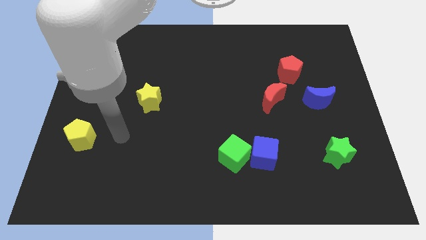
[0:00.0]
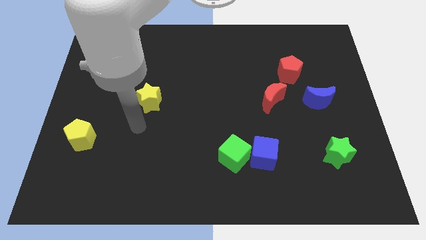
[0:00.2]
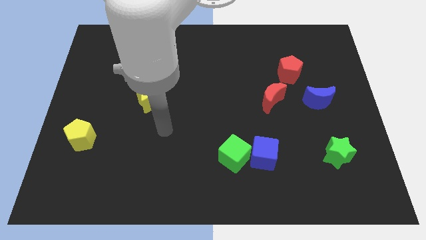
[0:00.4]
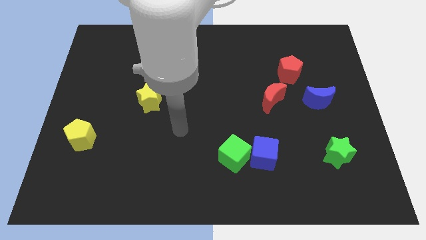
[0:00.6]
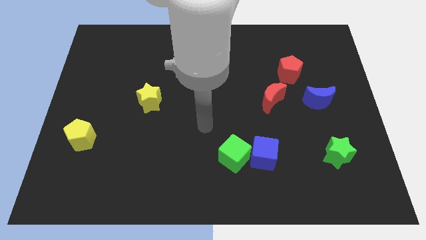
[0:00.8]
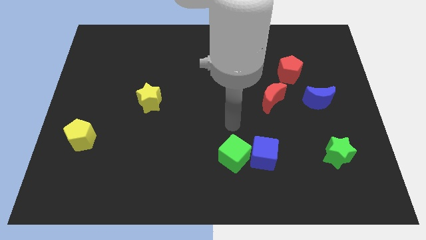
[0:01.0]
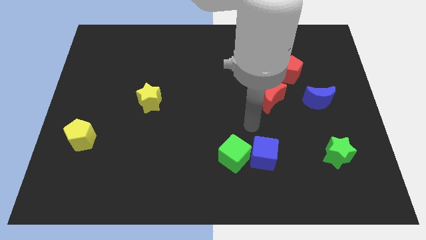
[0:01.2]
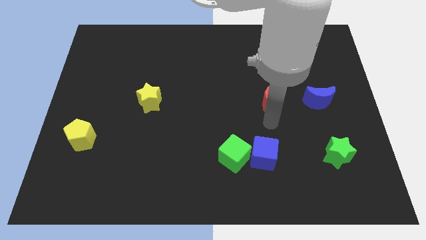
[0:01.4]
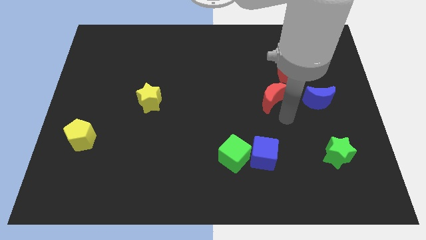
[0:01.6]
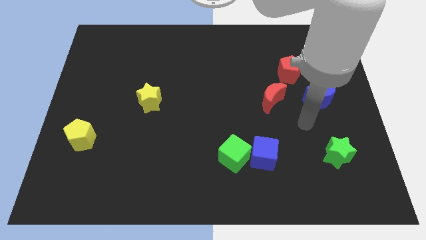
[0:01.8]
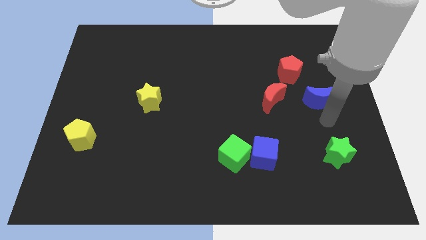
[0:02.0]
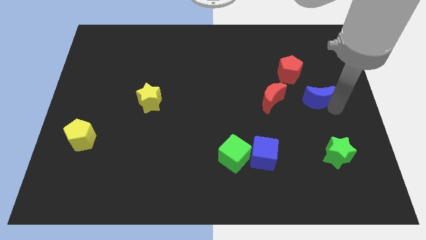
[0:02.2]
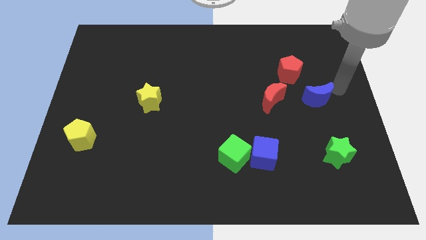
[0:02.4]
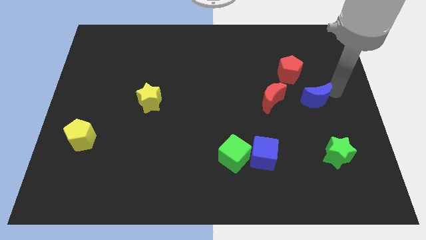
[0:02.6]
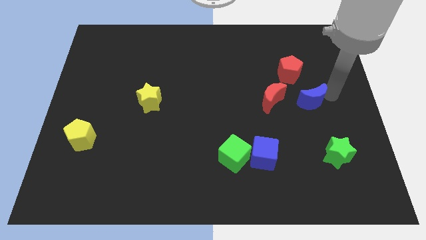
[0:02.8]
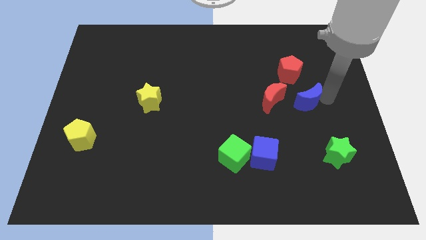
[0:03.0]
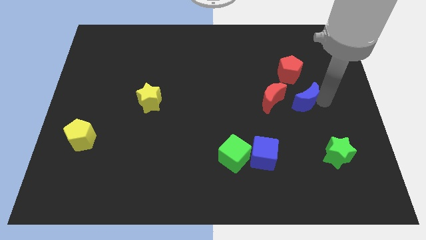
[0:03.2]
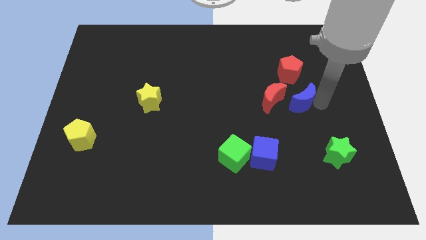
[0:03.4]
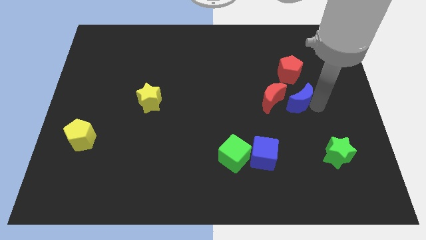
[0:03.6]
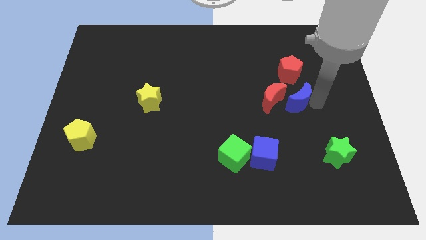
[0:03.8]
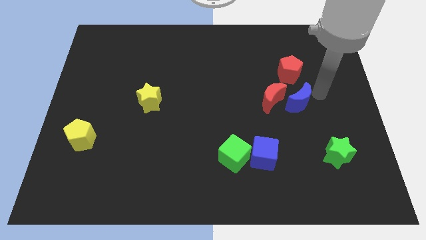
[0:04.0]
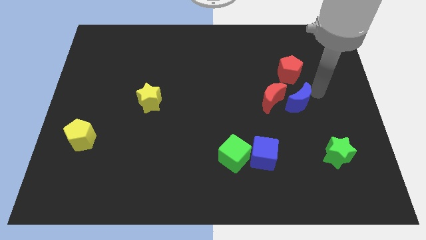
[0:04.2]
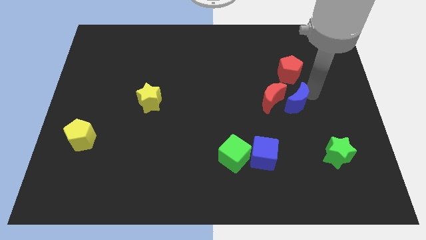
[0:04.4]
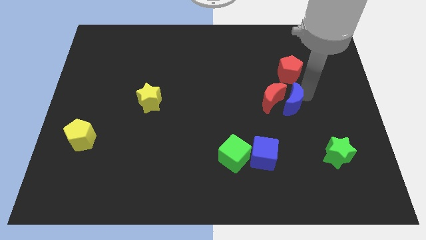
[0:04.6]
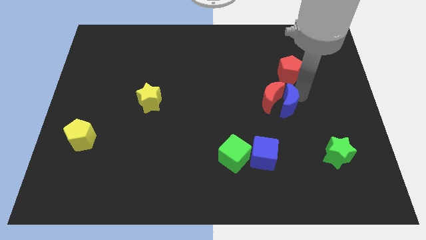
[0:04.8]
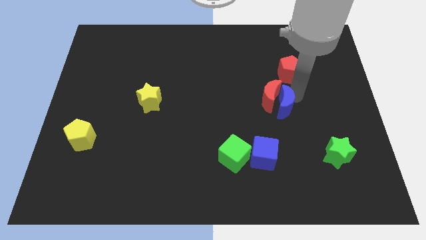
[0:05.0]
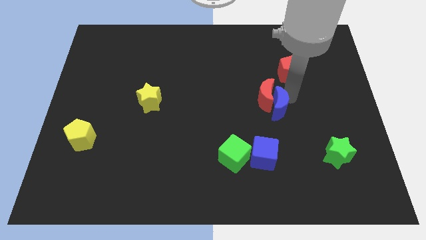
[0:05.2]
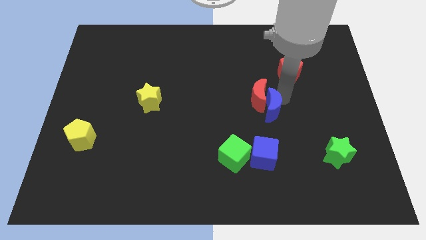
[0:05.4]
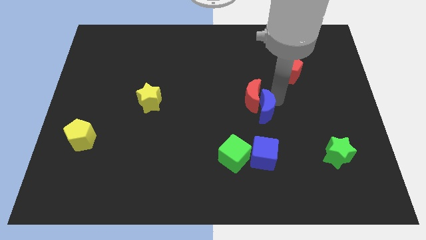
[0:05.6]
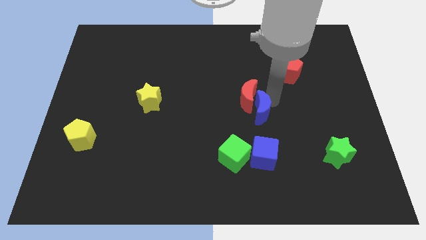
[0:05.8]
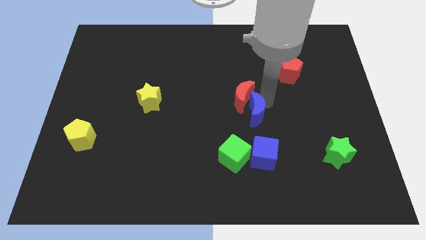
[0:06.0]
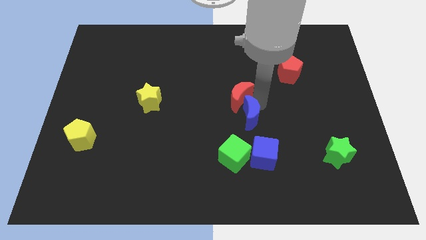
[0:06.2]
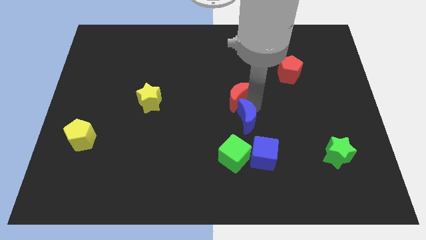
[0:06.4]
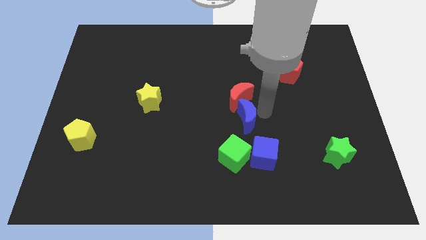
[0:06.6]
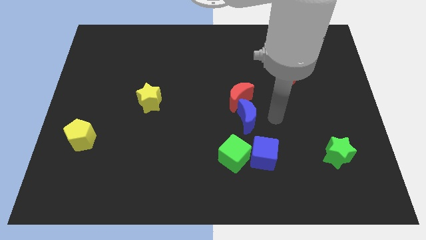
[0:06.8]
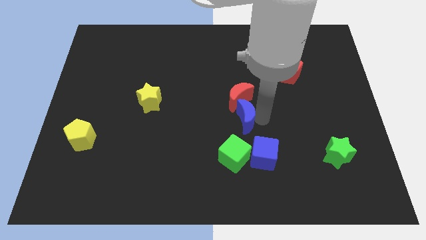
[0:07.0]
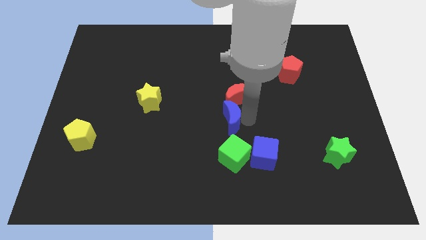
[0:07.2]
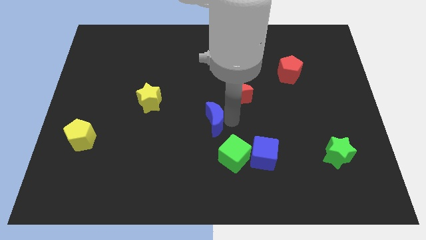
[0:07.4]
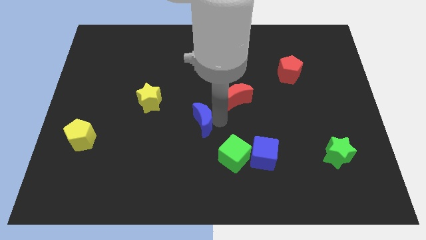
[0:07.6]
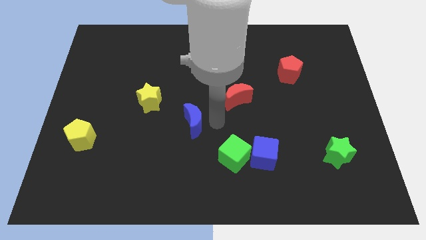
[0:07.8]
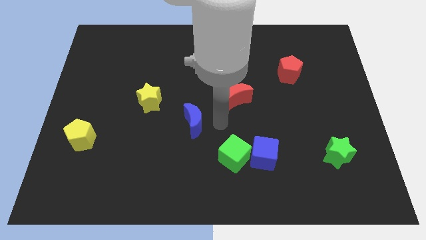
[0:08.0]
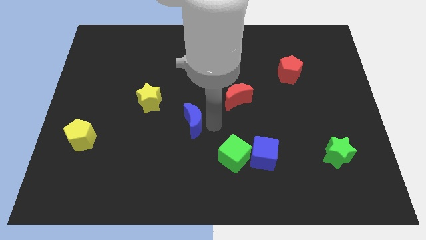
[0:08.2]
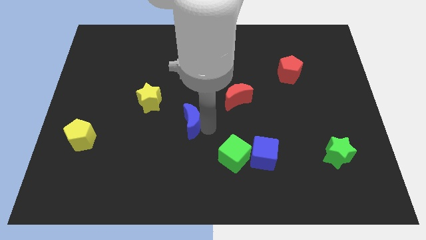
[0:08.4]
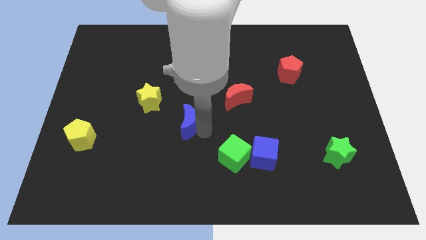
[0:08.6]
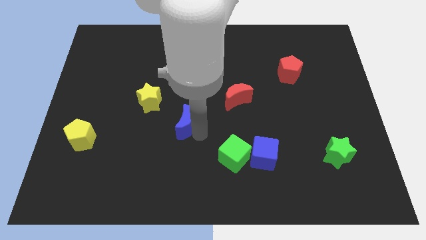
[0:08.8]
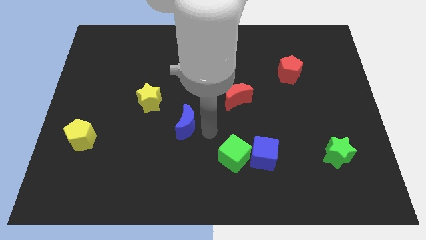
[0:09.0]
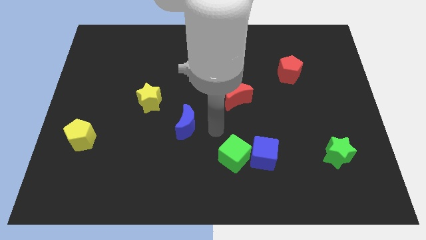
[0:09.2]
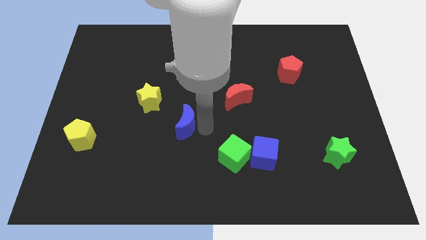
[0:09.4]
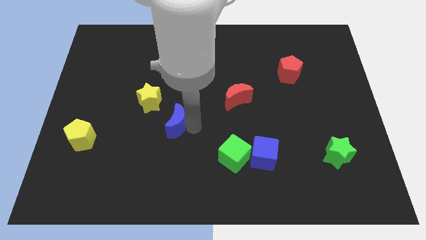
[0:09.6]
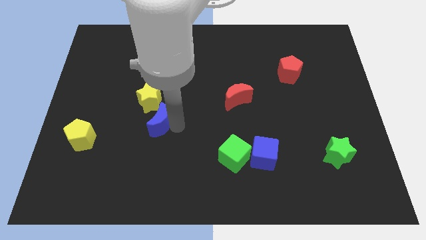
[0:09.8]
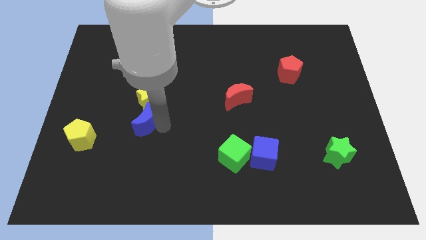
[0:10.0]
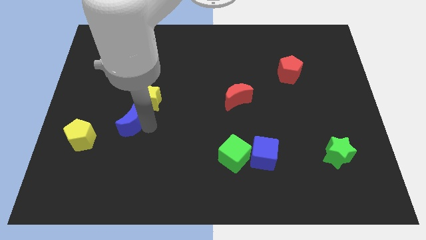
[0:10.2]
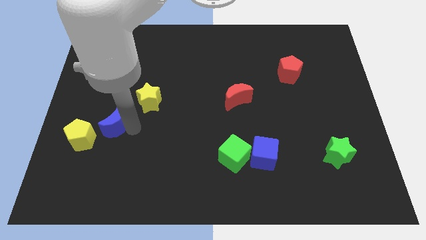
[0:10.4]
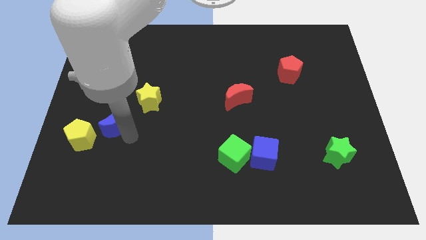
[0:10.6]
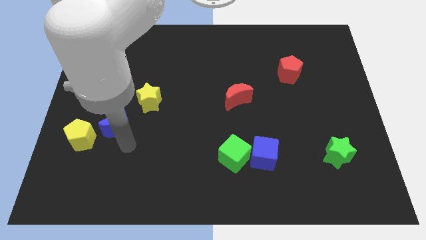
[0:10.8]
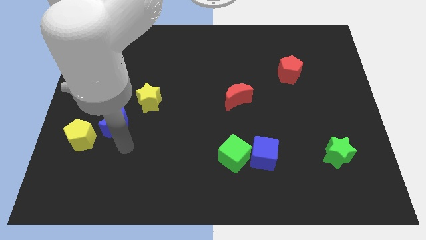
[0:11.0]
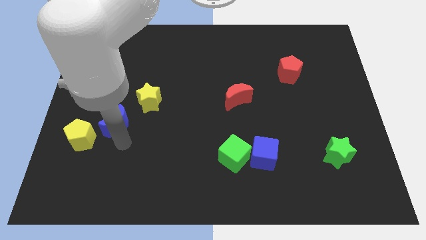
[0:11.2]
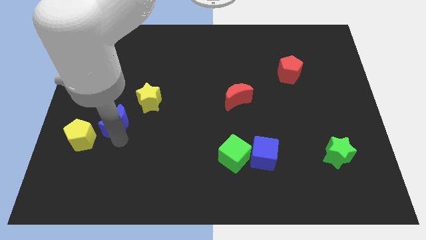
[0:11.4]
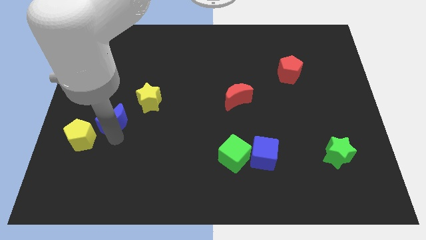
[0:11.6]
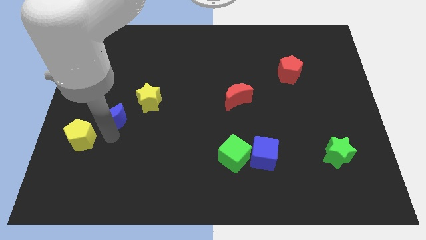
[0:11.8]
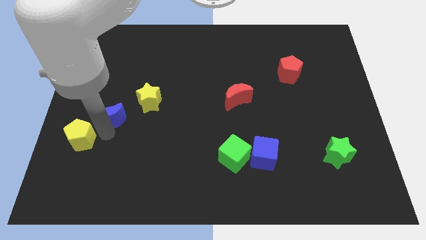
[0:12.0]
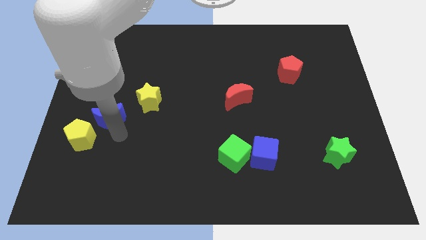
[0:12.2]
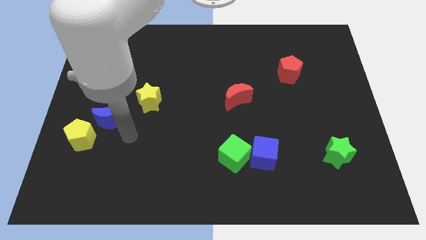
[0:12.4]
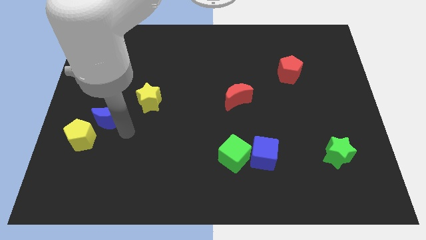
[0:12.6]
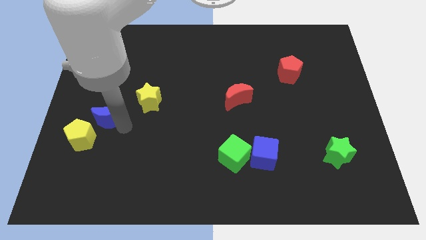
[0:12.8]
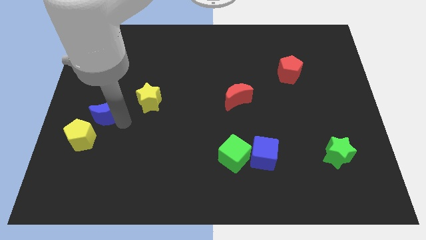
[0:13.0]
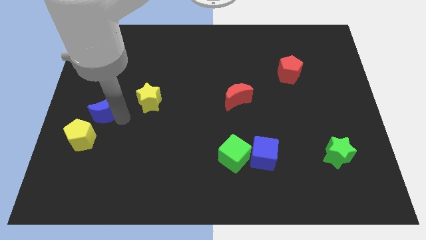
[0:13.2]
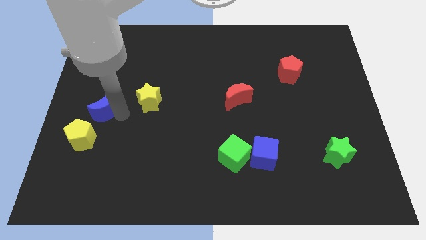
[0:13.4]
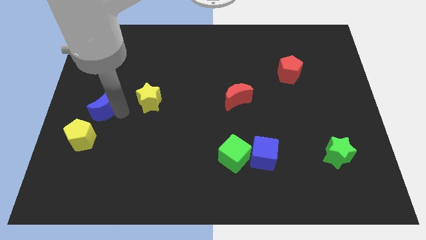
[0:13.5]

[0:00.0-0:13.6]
put the blue moon to the left side of the board
